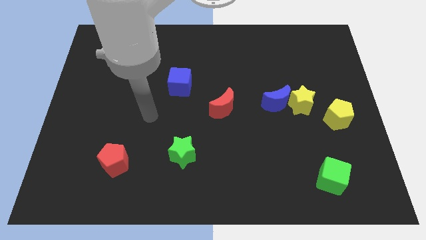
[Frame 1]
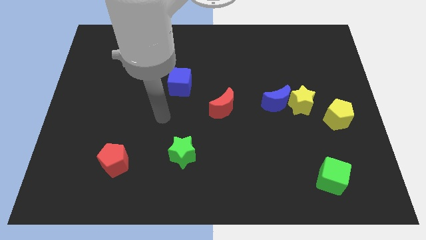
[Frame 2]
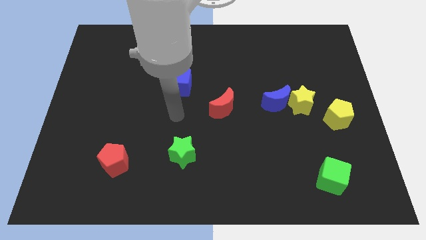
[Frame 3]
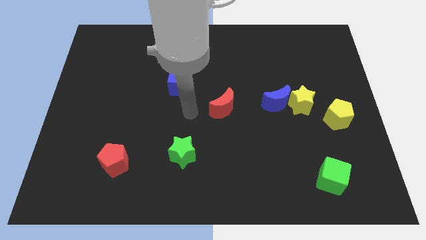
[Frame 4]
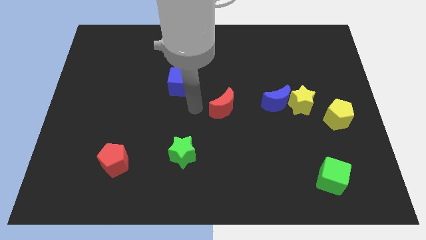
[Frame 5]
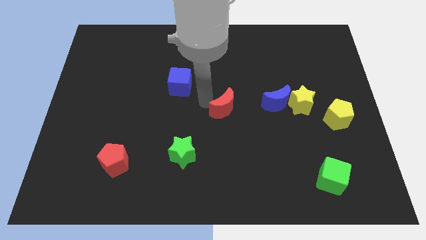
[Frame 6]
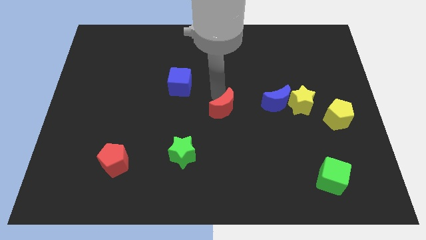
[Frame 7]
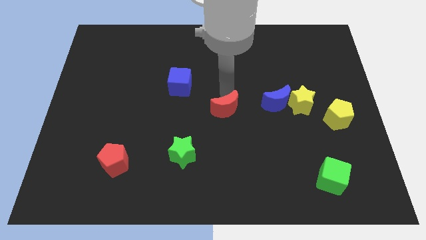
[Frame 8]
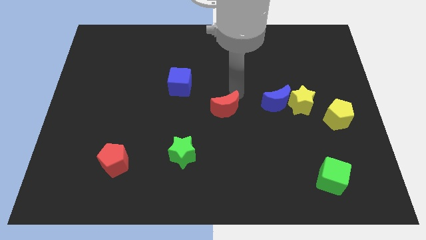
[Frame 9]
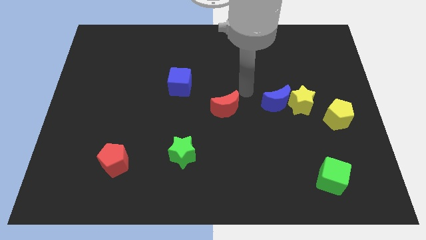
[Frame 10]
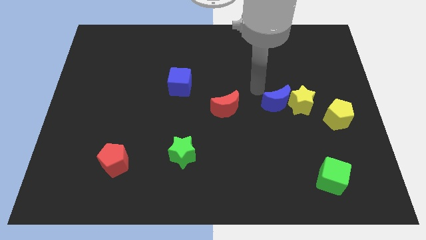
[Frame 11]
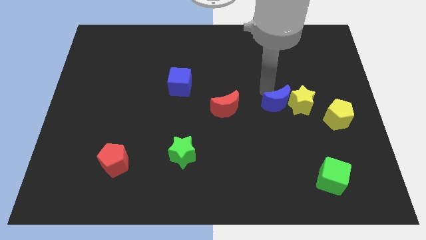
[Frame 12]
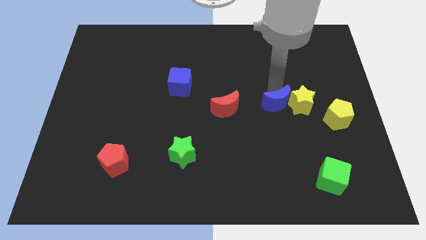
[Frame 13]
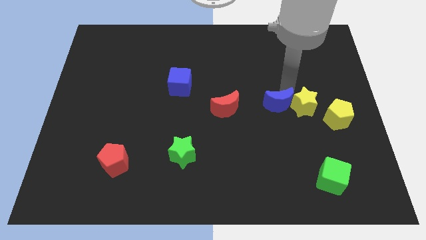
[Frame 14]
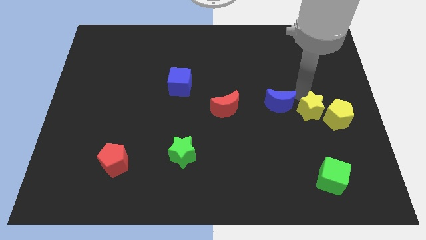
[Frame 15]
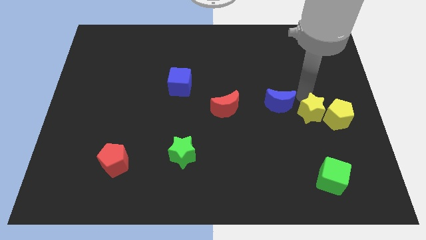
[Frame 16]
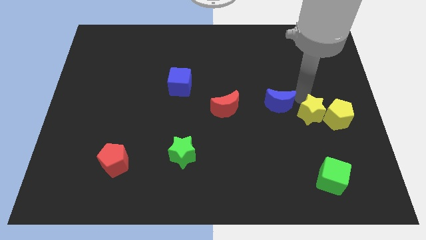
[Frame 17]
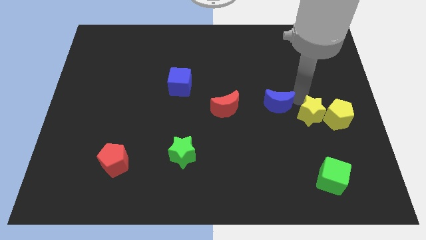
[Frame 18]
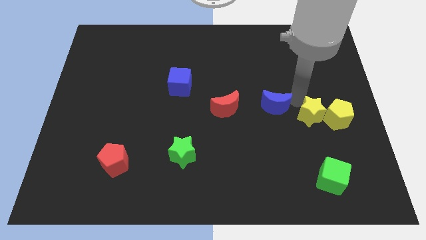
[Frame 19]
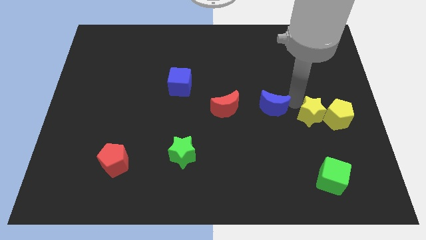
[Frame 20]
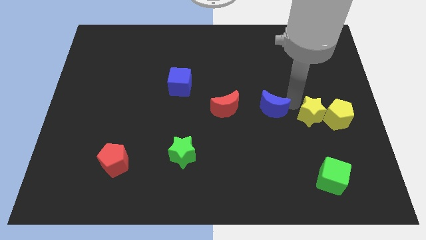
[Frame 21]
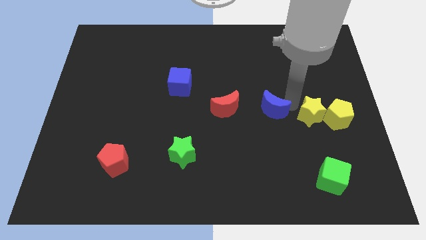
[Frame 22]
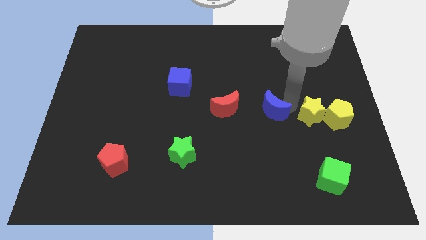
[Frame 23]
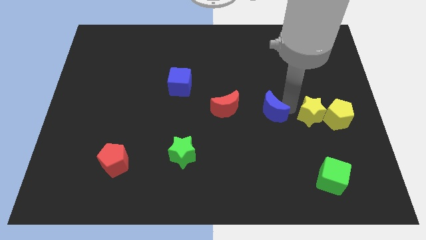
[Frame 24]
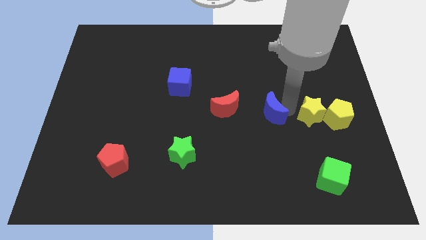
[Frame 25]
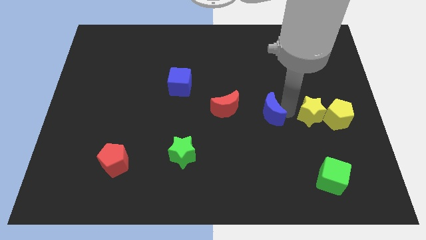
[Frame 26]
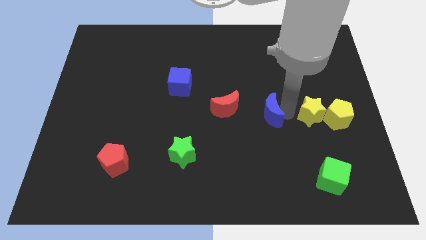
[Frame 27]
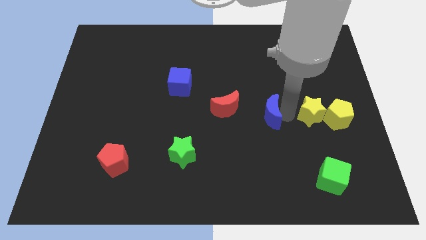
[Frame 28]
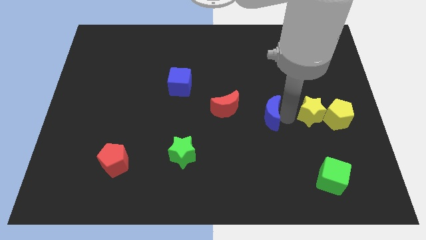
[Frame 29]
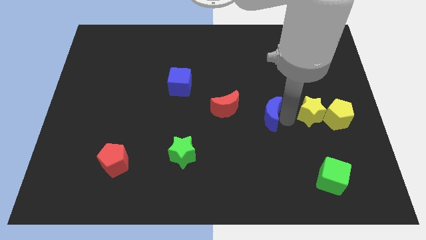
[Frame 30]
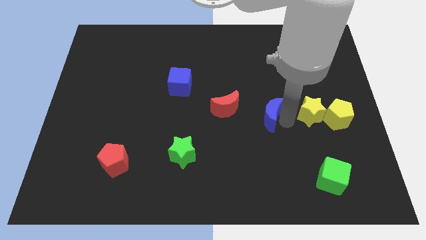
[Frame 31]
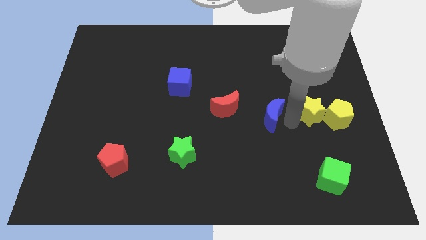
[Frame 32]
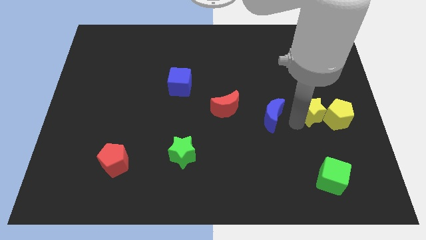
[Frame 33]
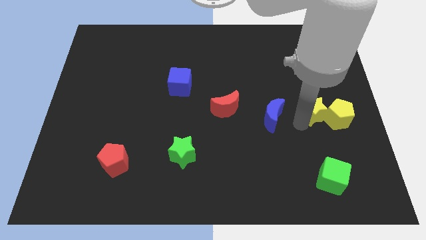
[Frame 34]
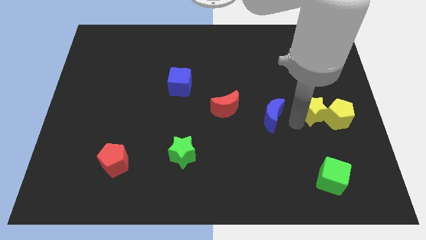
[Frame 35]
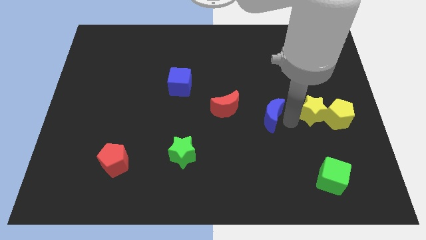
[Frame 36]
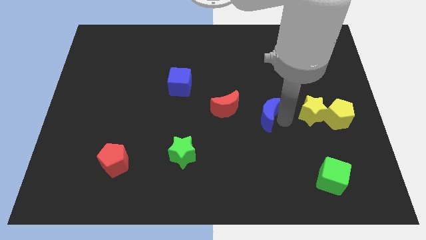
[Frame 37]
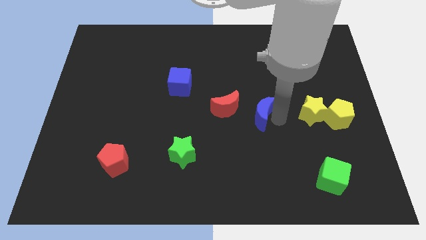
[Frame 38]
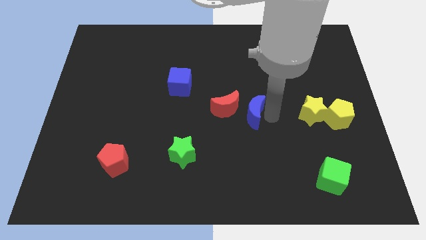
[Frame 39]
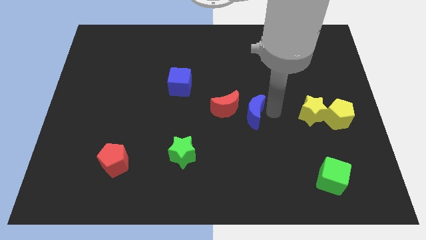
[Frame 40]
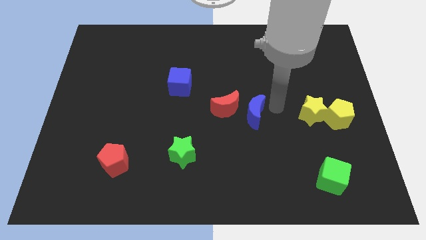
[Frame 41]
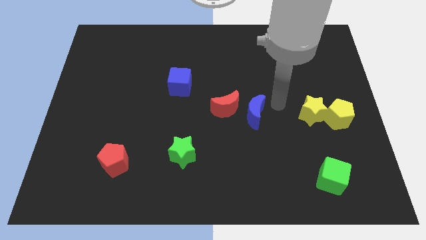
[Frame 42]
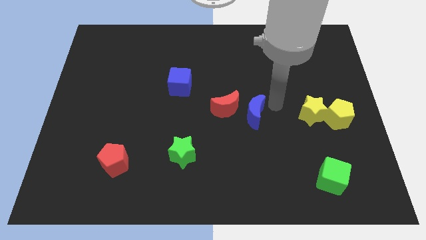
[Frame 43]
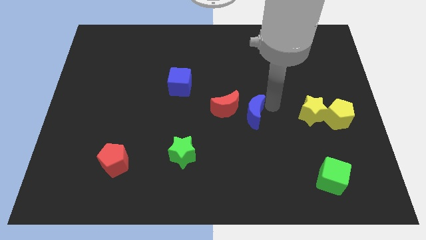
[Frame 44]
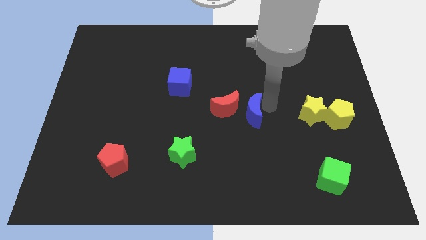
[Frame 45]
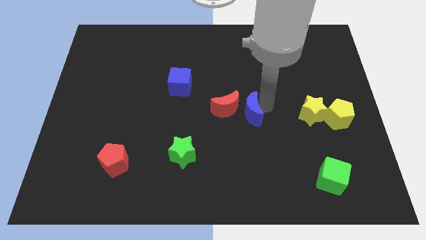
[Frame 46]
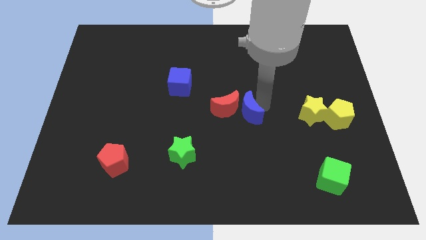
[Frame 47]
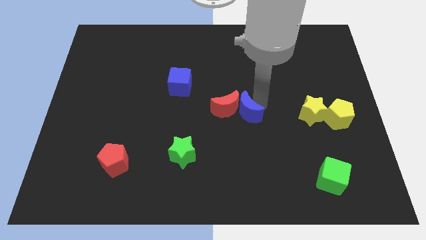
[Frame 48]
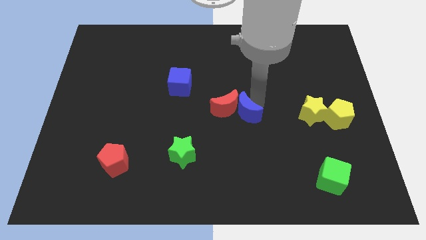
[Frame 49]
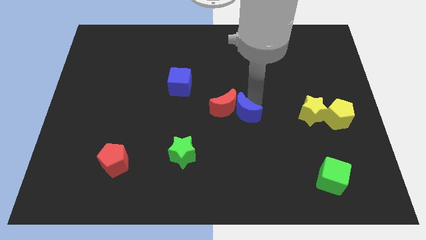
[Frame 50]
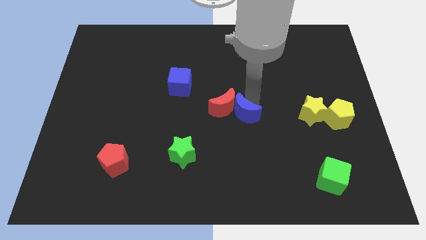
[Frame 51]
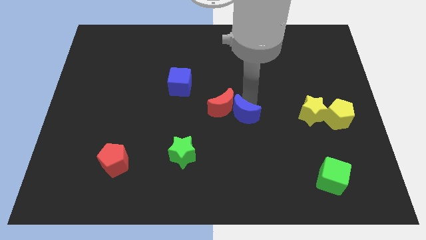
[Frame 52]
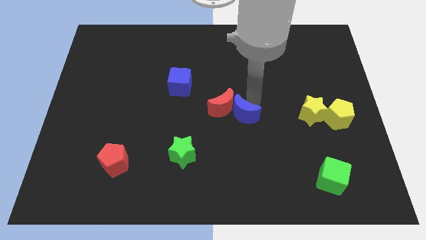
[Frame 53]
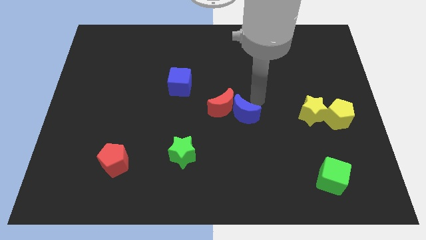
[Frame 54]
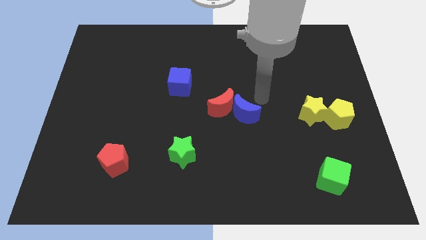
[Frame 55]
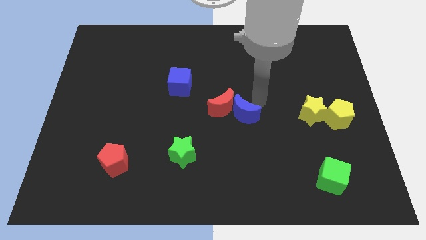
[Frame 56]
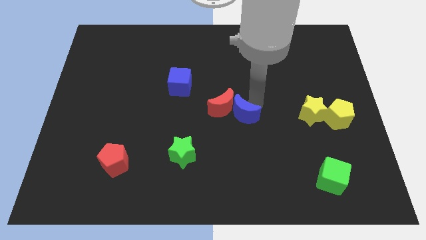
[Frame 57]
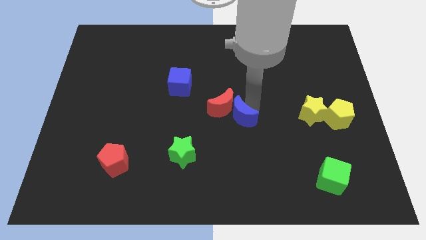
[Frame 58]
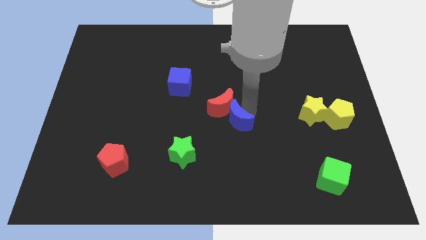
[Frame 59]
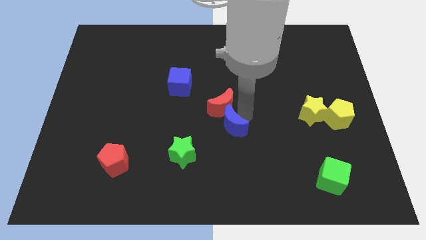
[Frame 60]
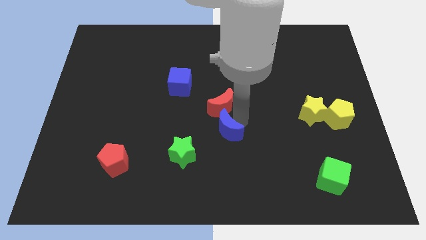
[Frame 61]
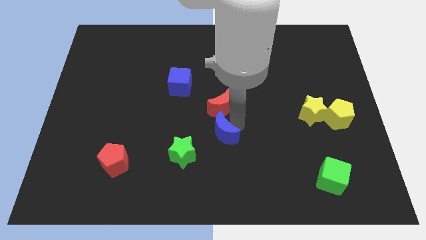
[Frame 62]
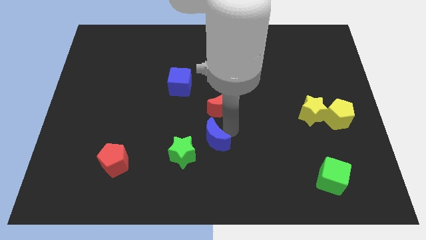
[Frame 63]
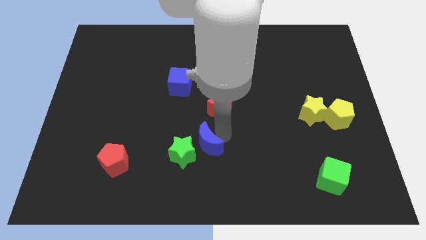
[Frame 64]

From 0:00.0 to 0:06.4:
push the blue moon towards the green star

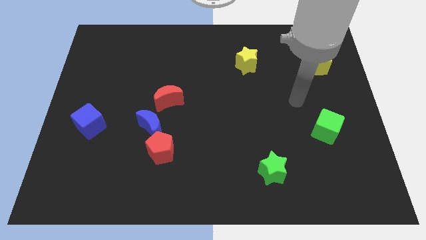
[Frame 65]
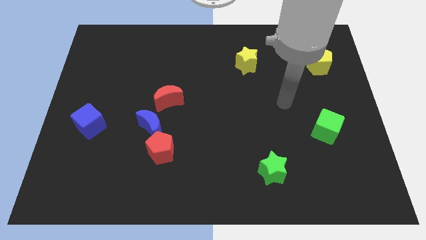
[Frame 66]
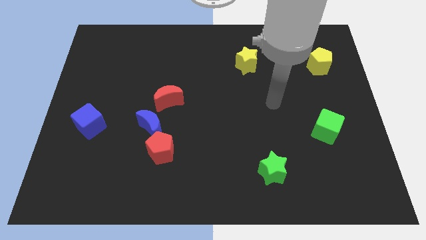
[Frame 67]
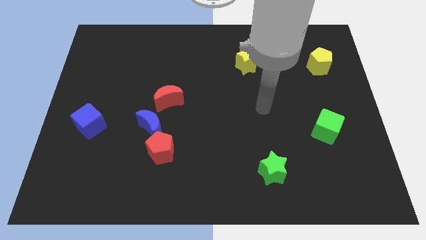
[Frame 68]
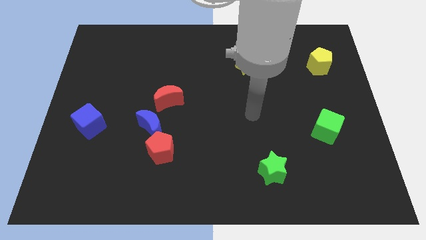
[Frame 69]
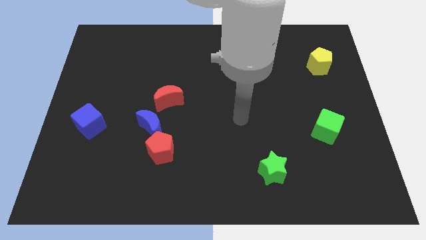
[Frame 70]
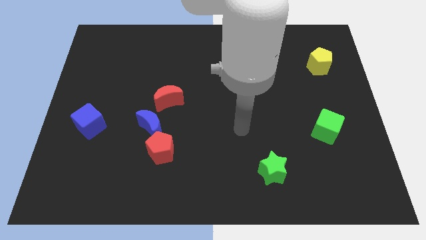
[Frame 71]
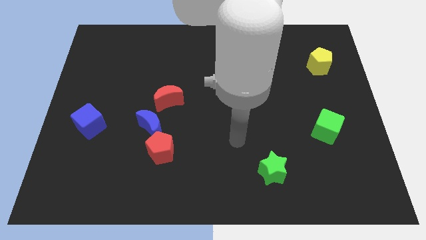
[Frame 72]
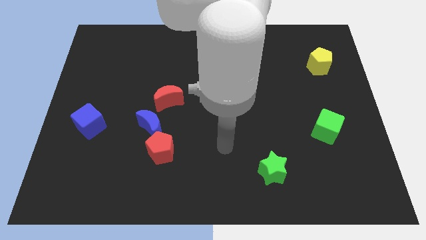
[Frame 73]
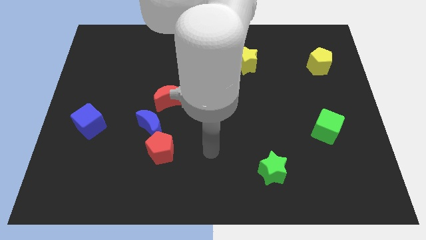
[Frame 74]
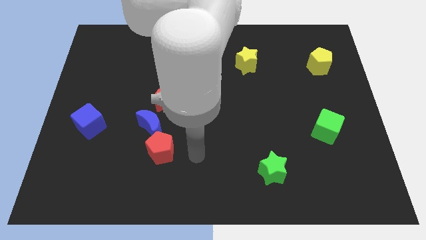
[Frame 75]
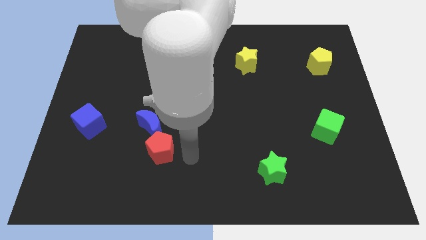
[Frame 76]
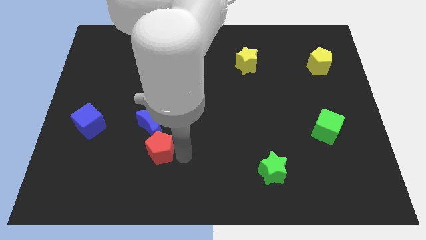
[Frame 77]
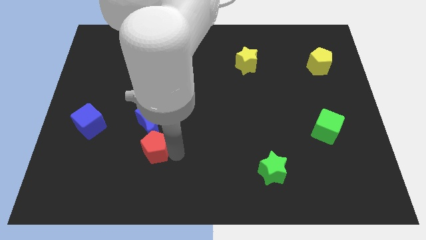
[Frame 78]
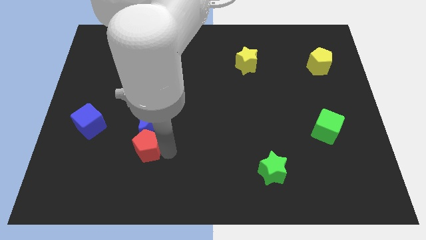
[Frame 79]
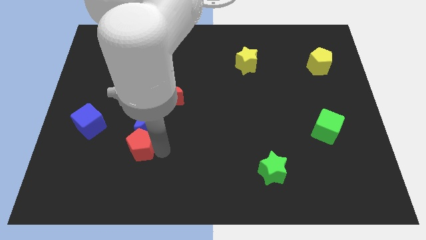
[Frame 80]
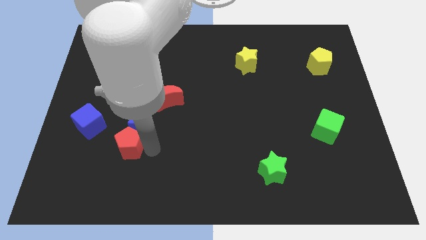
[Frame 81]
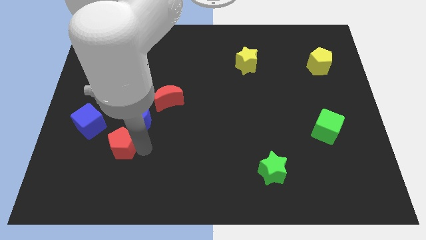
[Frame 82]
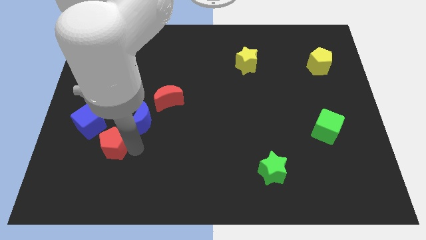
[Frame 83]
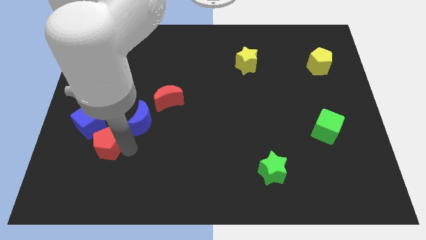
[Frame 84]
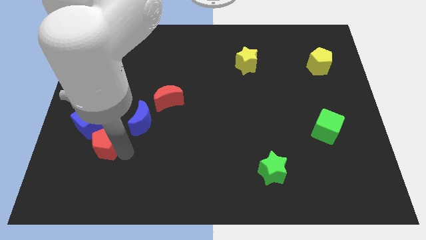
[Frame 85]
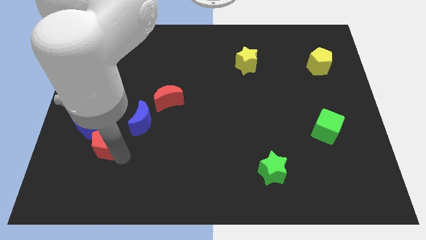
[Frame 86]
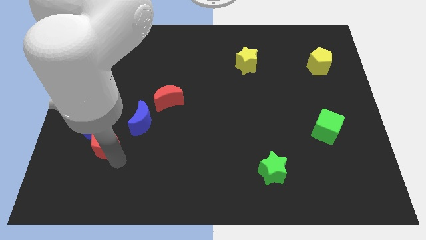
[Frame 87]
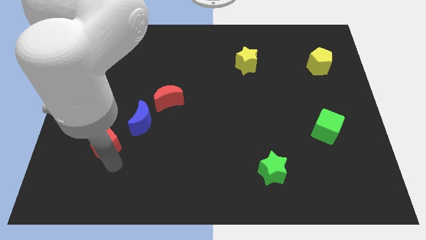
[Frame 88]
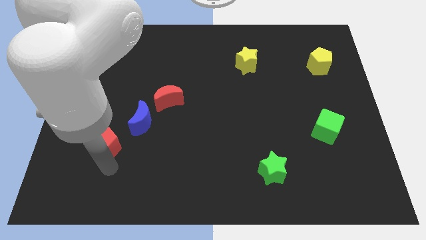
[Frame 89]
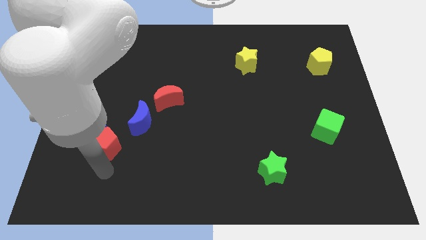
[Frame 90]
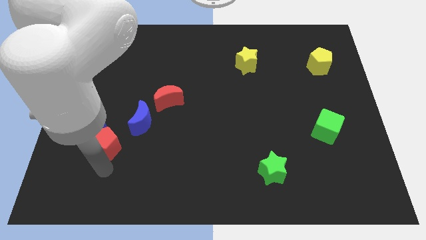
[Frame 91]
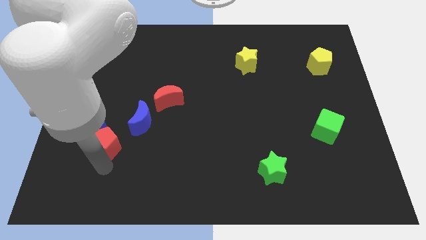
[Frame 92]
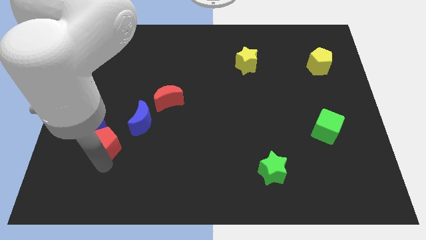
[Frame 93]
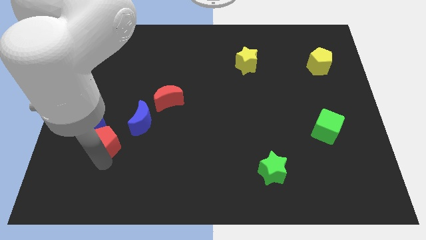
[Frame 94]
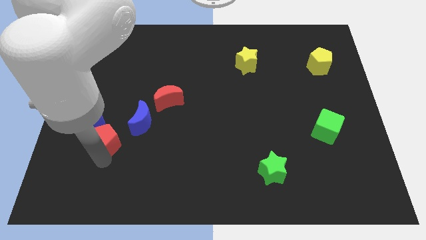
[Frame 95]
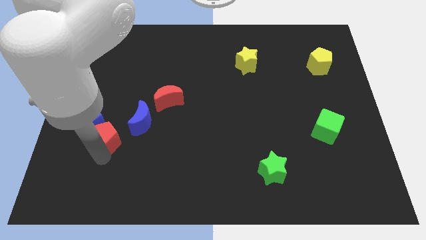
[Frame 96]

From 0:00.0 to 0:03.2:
slide the red pentagon next to the blue cube
